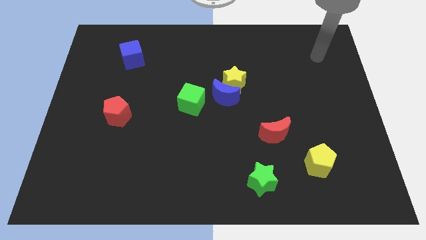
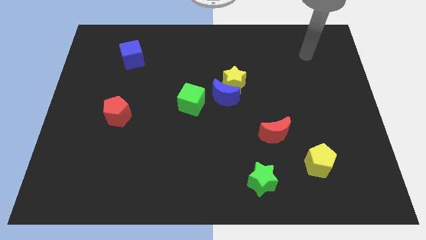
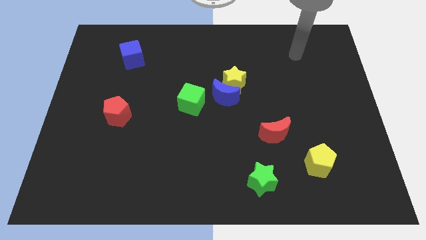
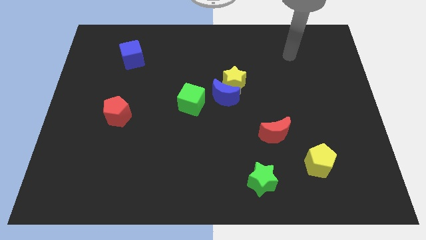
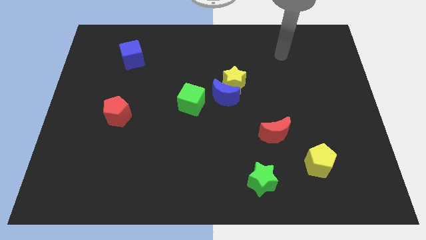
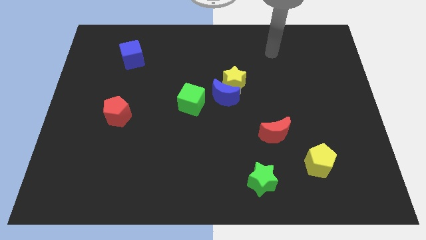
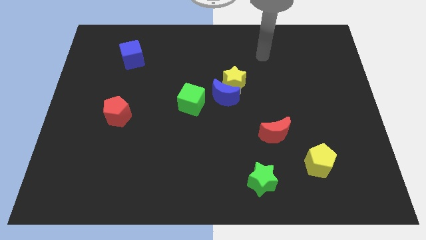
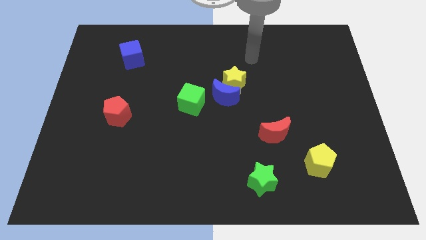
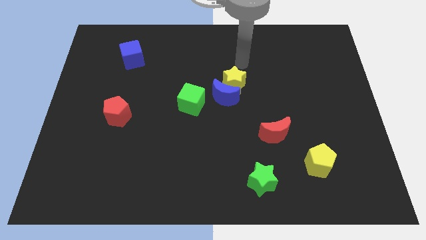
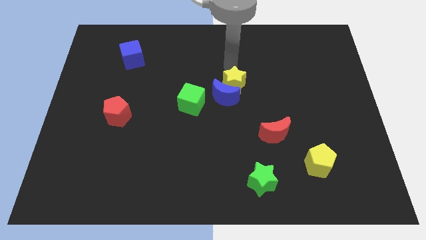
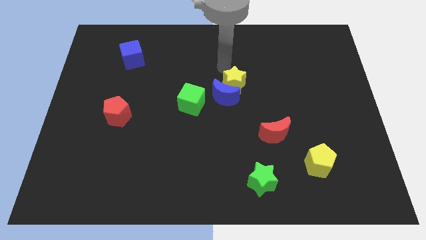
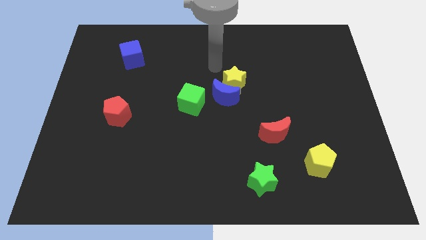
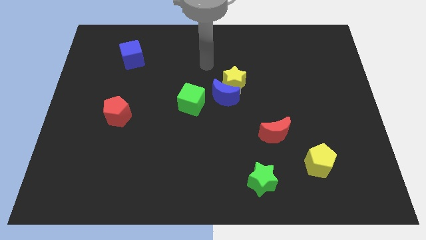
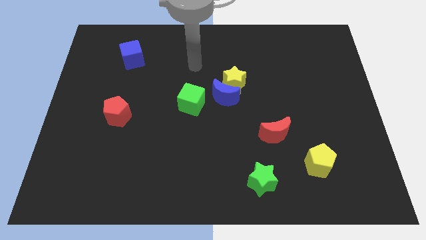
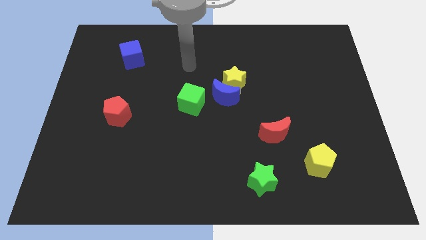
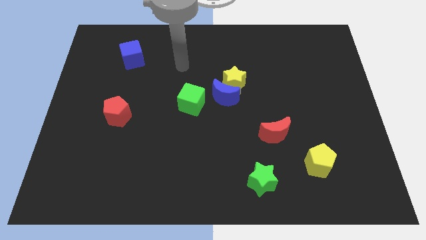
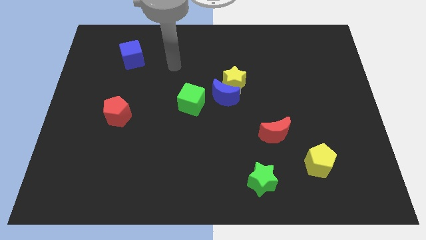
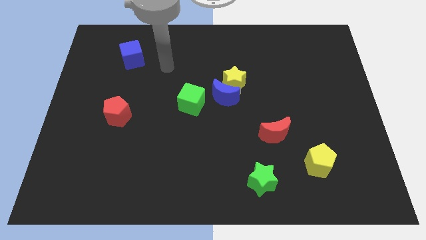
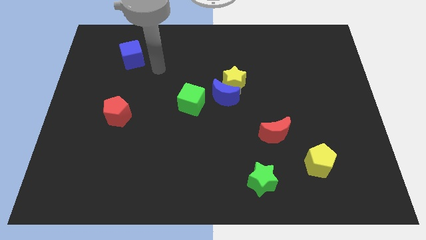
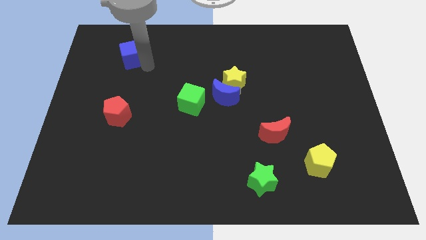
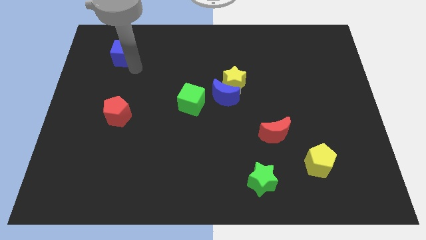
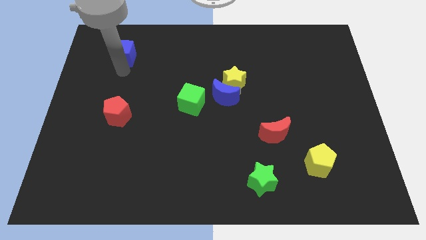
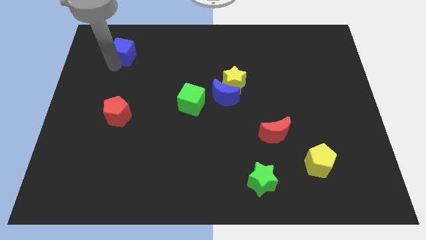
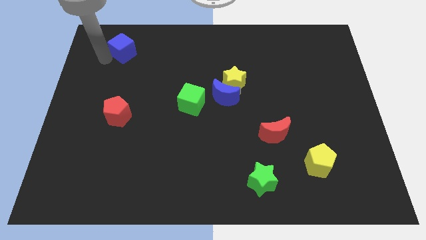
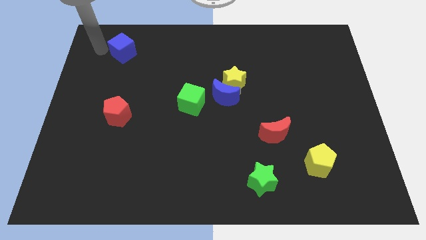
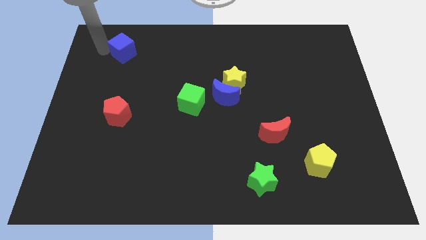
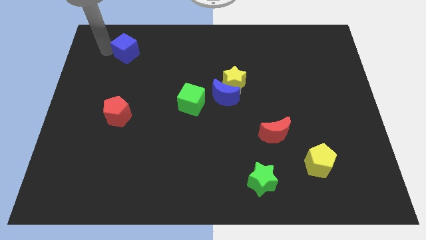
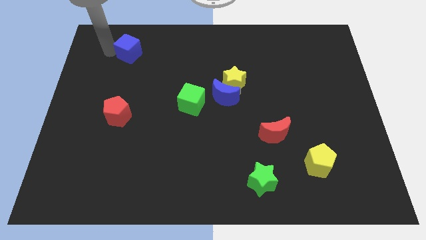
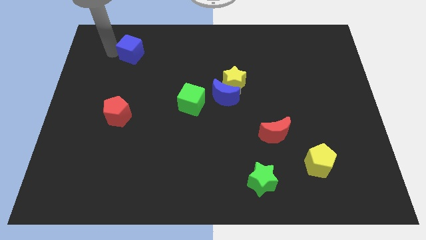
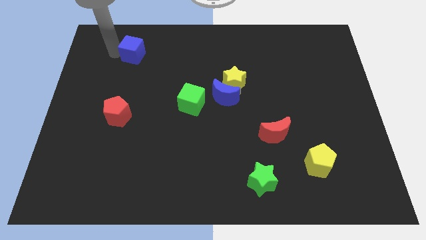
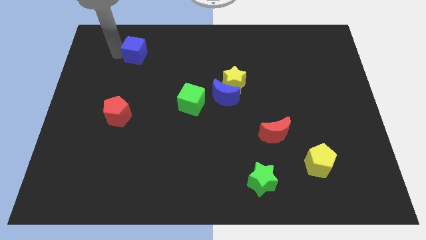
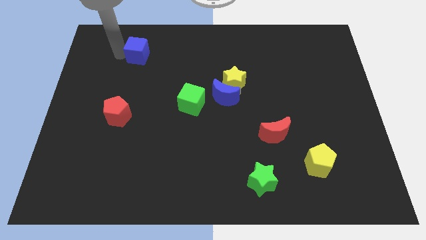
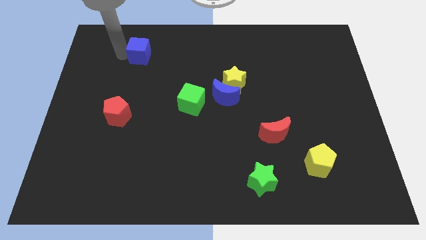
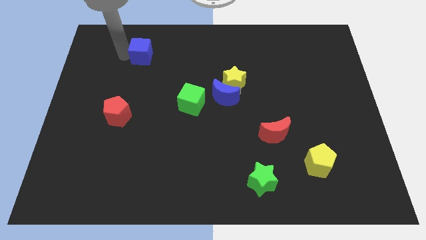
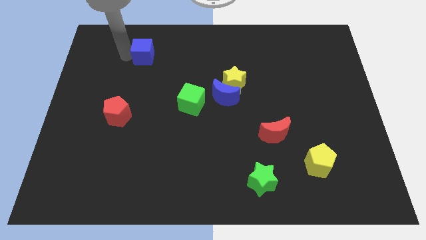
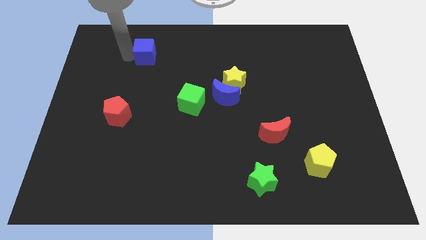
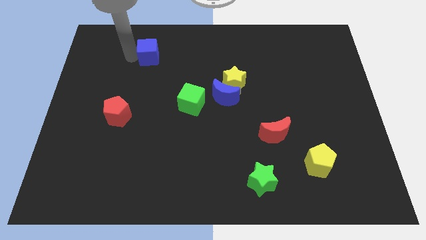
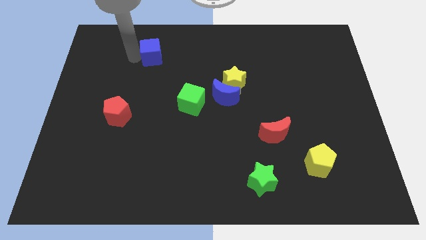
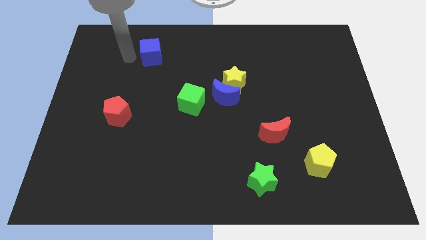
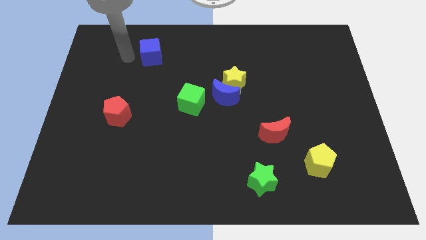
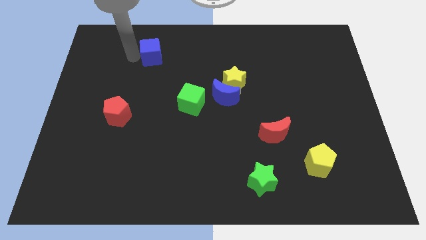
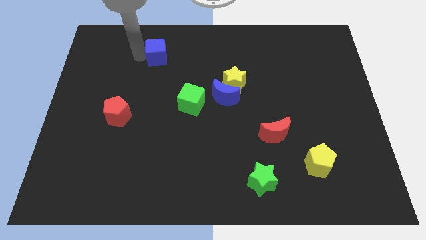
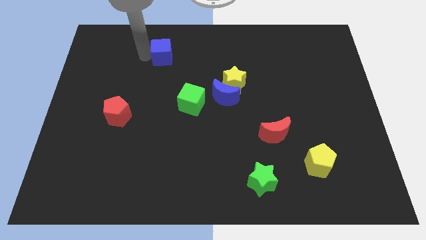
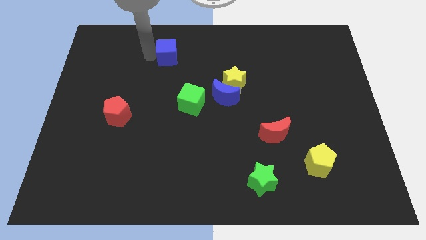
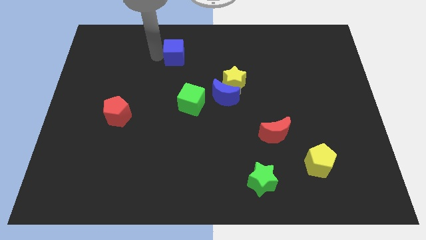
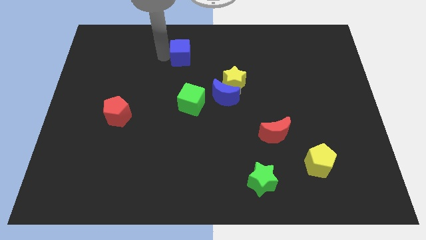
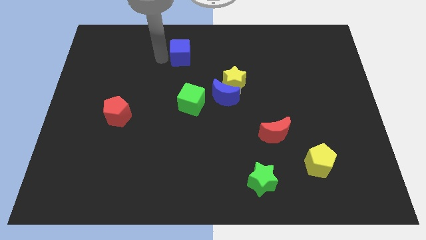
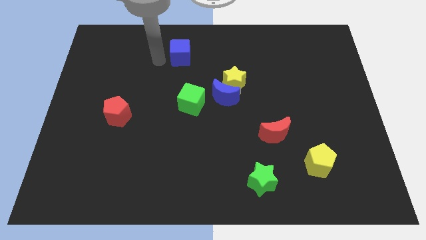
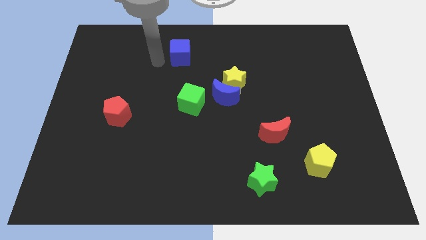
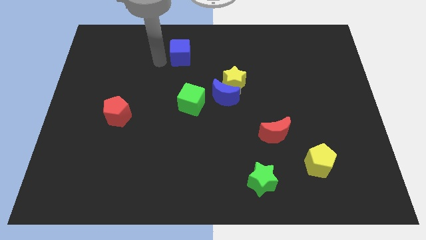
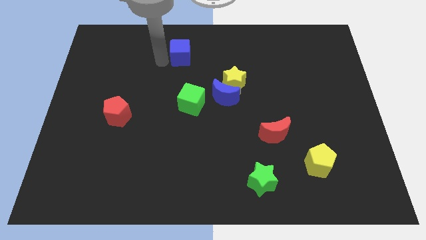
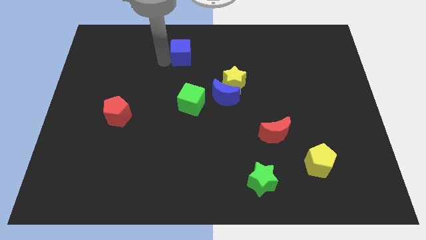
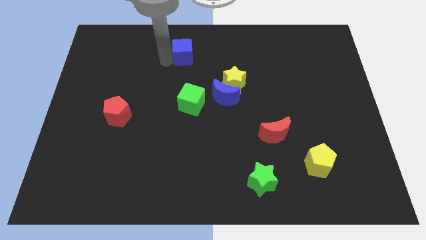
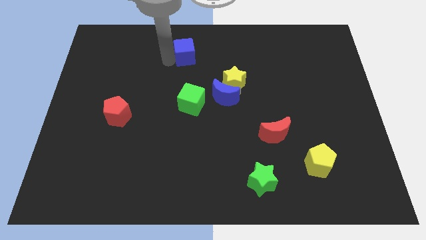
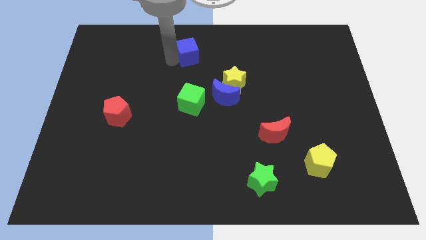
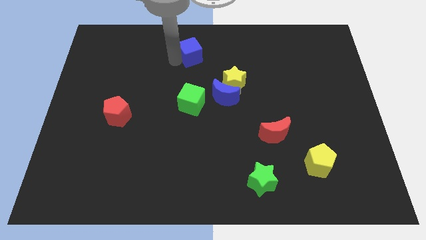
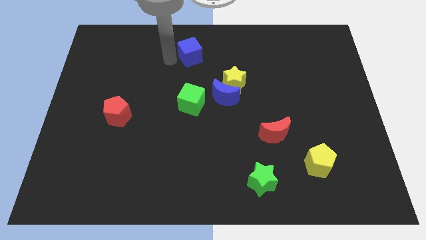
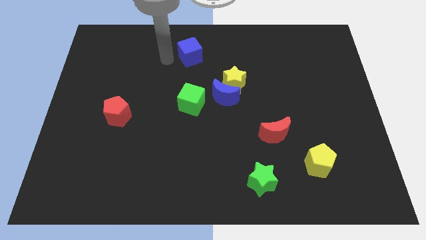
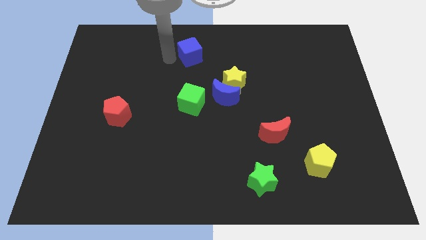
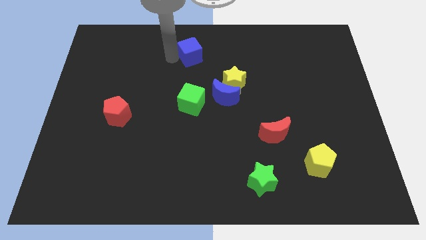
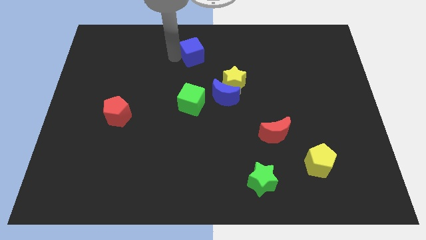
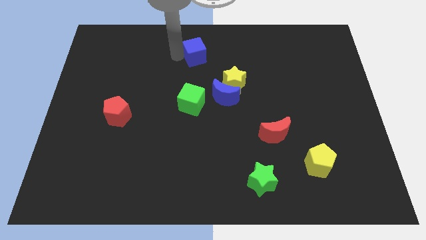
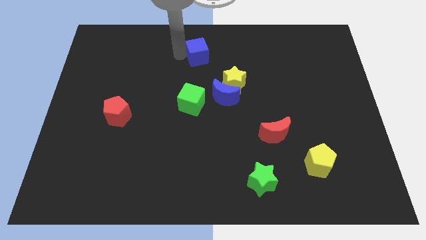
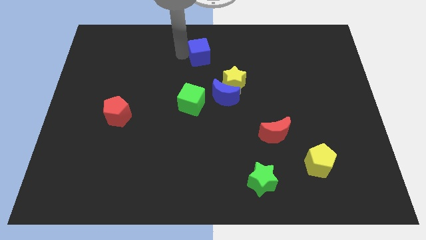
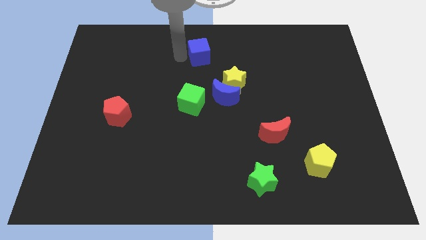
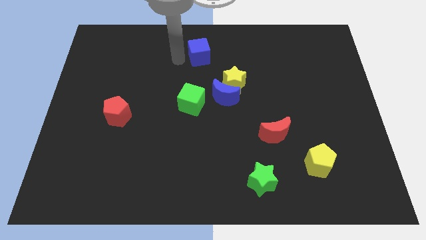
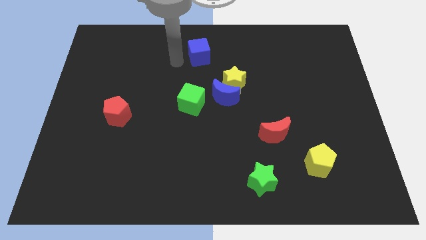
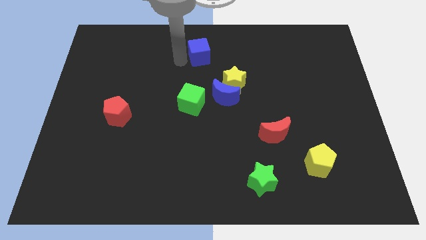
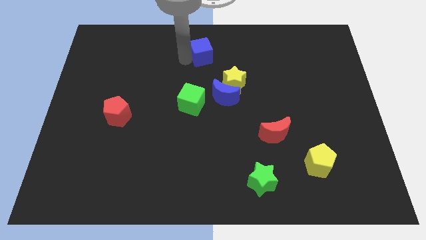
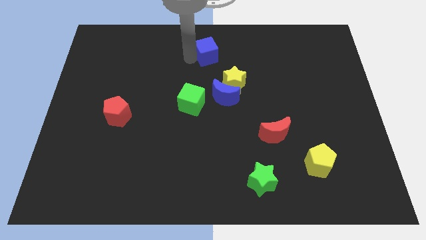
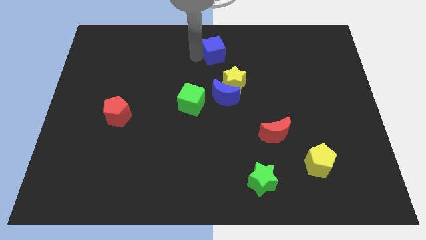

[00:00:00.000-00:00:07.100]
move the blue cube to the right

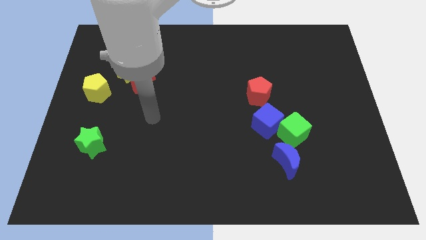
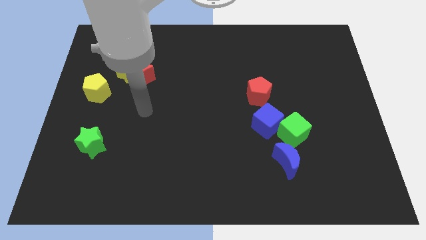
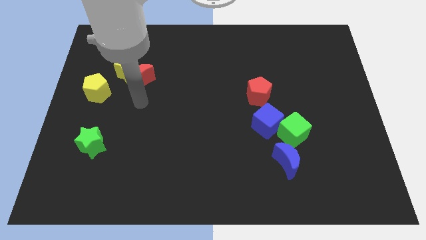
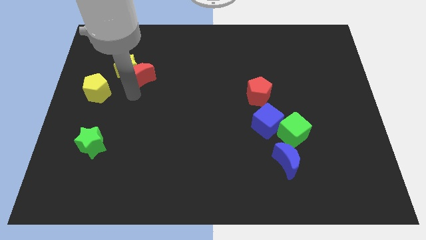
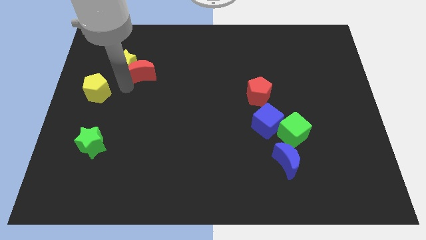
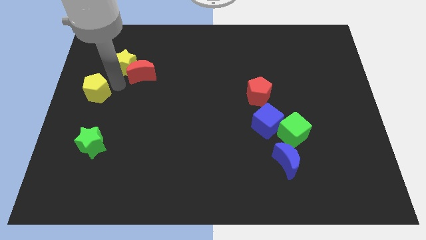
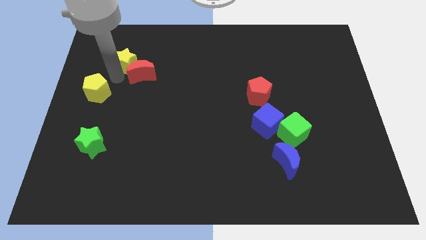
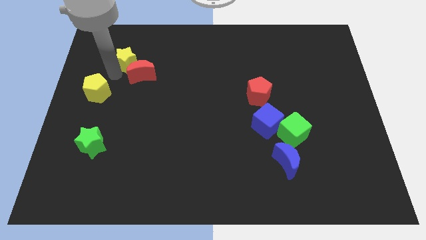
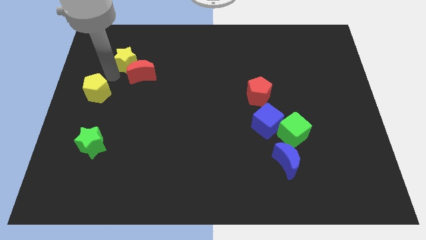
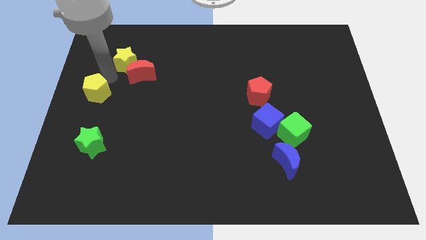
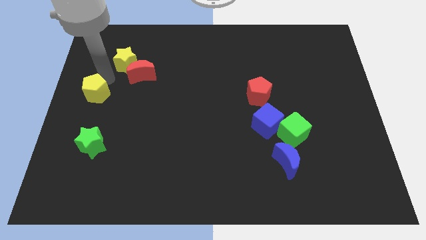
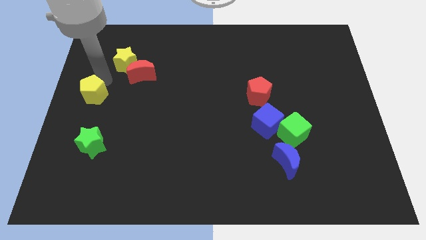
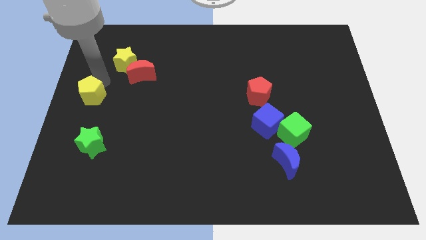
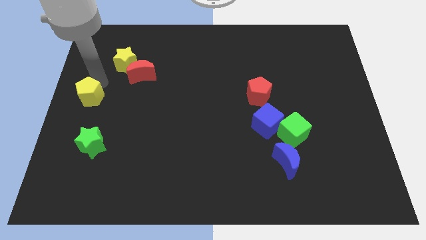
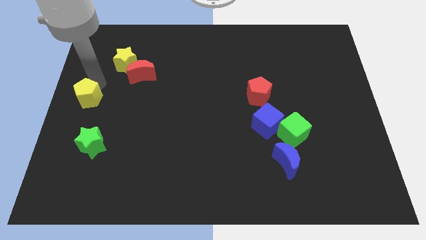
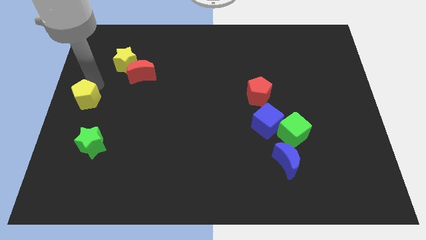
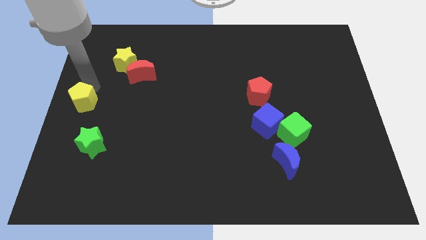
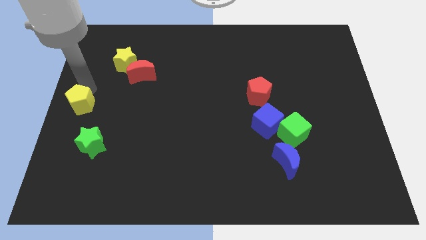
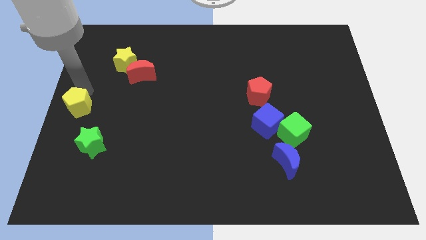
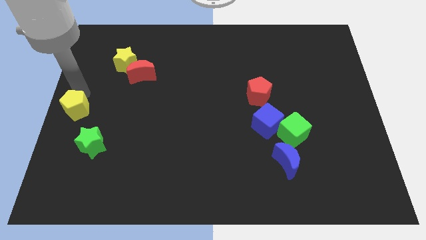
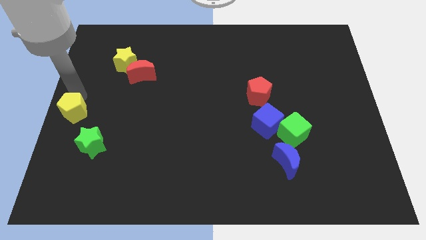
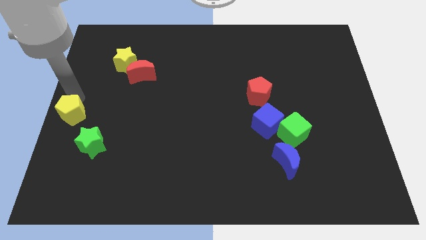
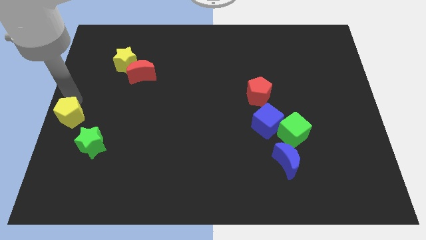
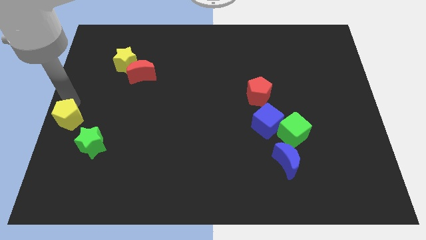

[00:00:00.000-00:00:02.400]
slightly move the yellow pentagon down
